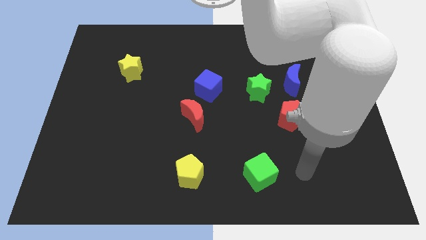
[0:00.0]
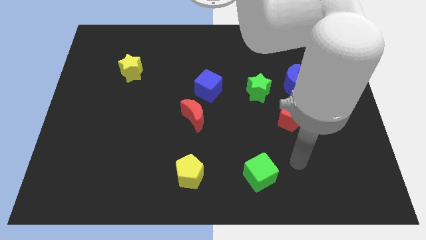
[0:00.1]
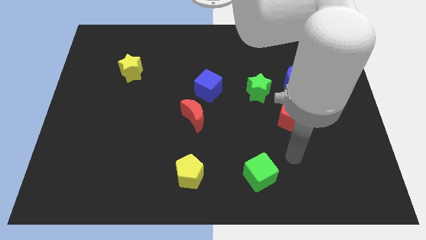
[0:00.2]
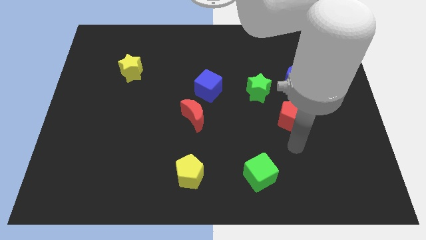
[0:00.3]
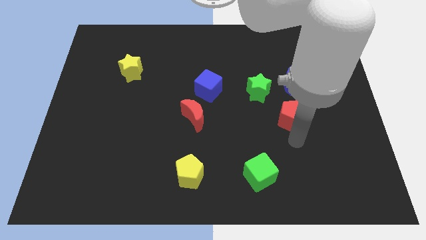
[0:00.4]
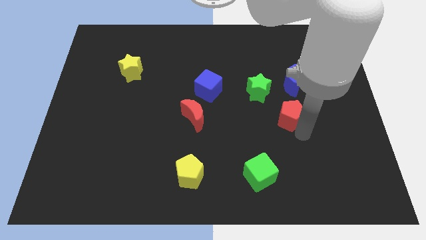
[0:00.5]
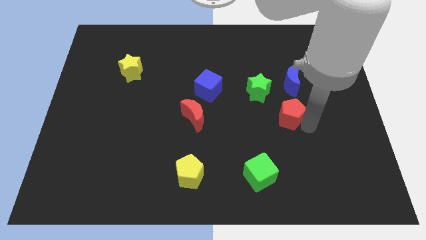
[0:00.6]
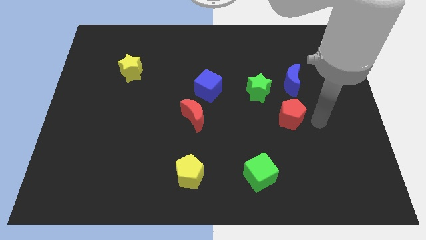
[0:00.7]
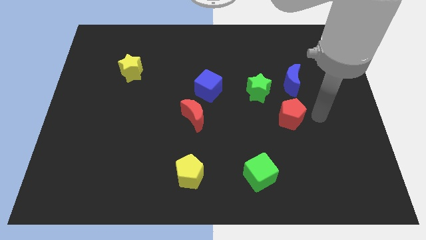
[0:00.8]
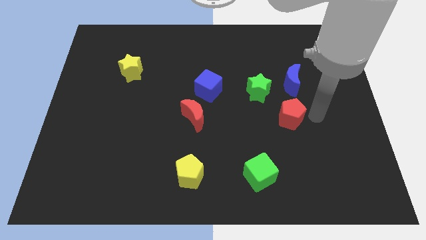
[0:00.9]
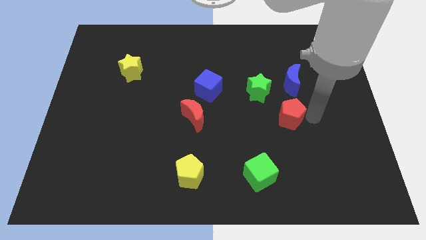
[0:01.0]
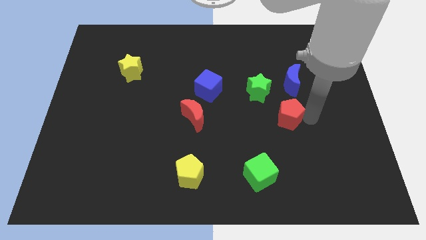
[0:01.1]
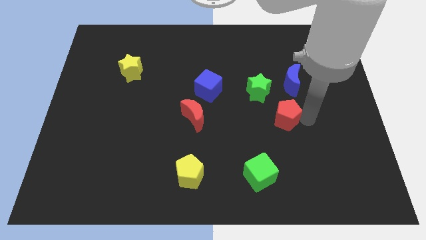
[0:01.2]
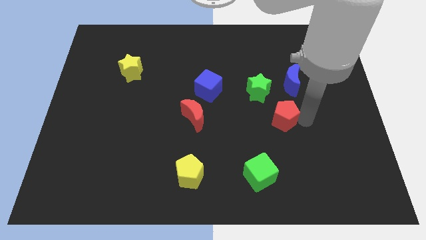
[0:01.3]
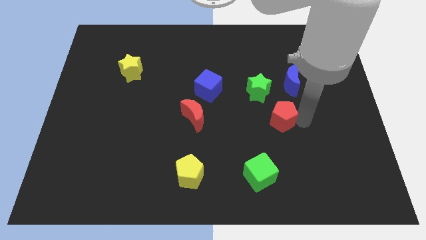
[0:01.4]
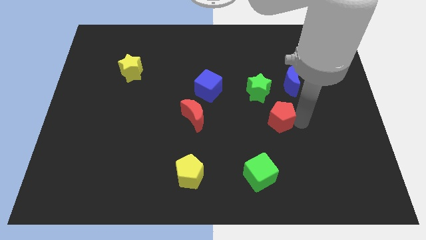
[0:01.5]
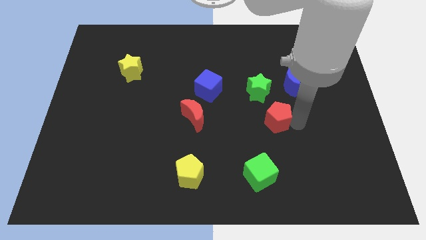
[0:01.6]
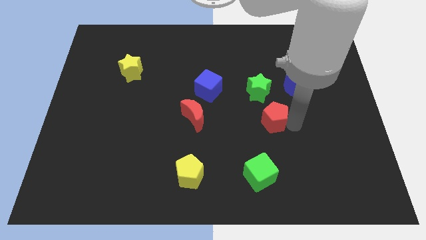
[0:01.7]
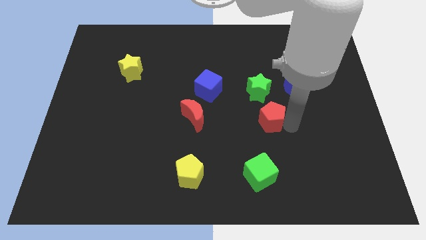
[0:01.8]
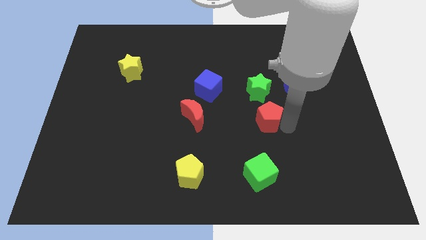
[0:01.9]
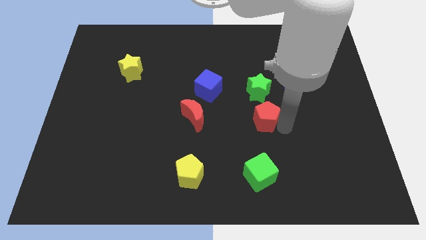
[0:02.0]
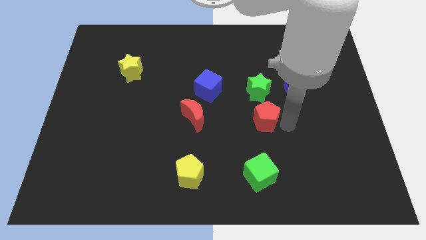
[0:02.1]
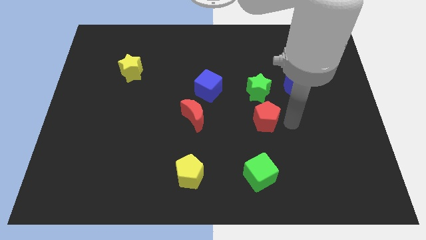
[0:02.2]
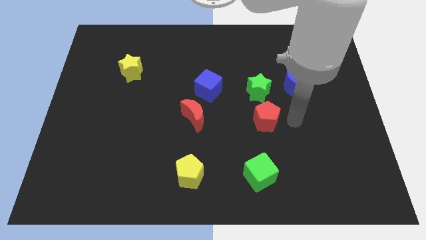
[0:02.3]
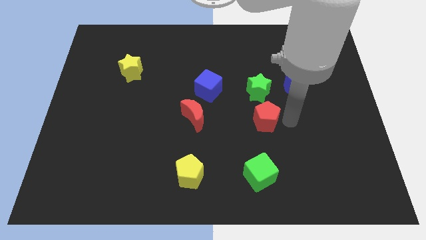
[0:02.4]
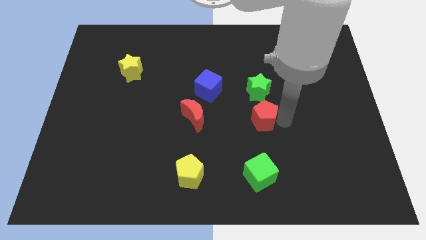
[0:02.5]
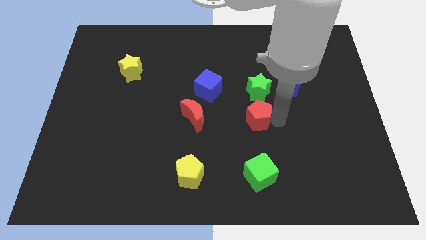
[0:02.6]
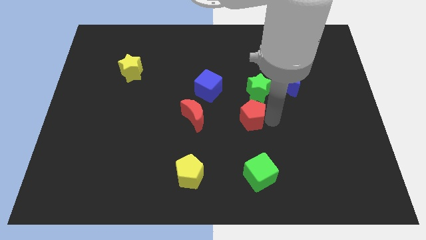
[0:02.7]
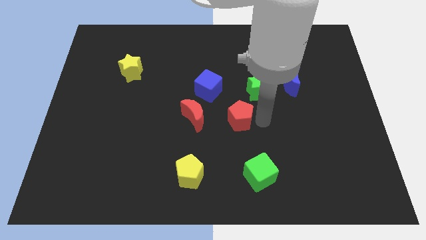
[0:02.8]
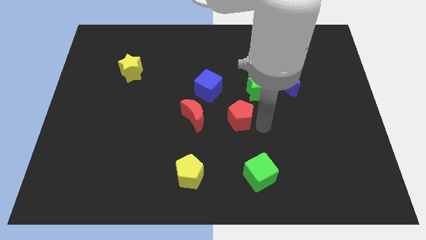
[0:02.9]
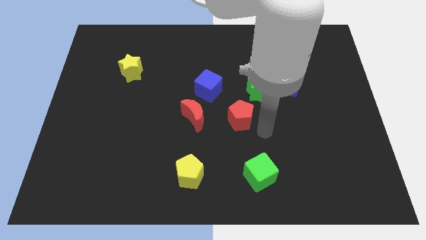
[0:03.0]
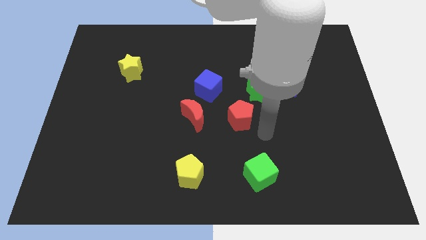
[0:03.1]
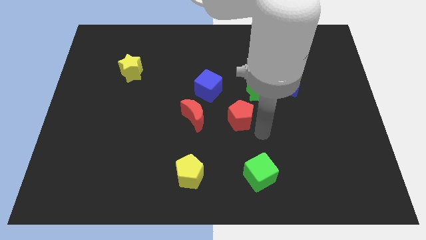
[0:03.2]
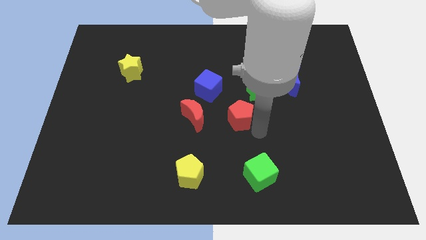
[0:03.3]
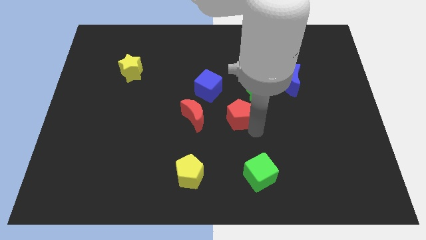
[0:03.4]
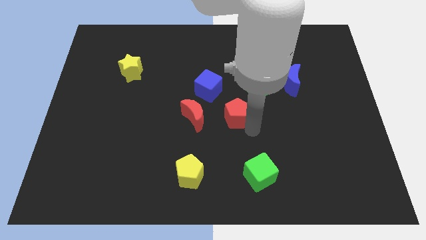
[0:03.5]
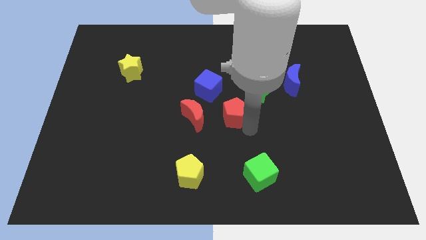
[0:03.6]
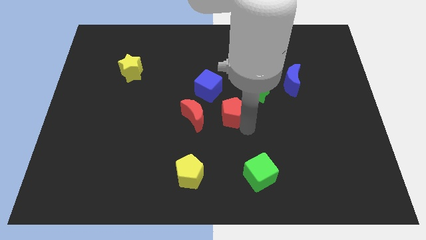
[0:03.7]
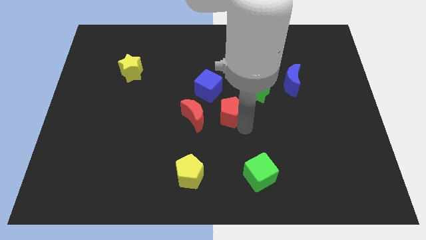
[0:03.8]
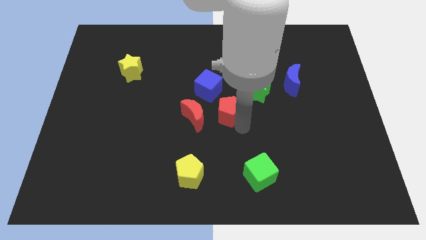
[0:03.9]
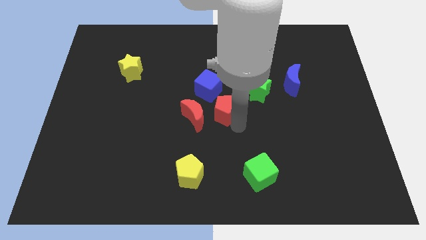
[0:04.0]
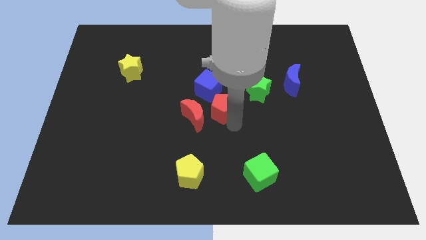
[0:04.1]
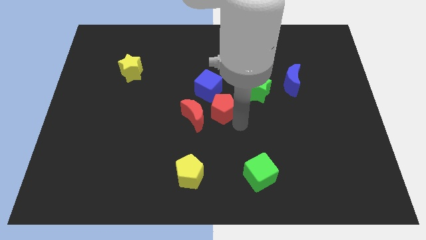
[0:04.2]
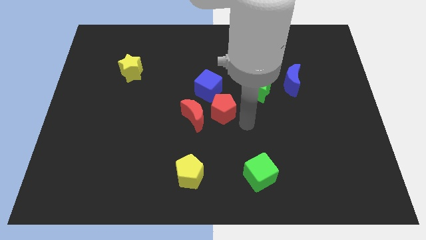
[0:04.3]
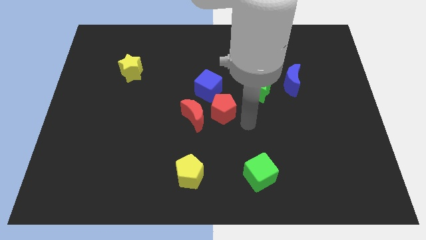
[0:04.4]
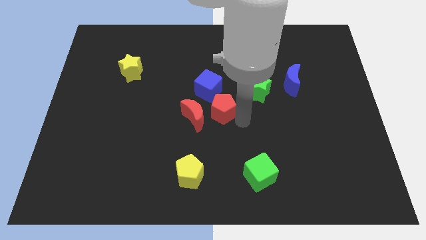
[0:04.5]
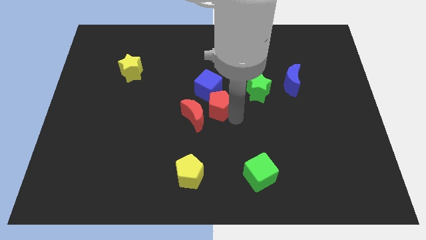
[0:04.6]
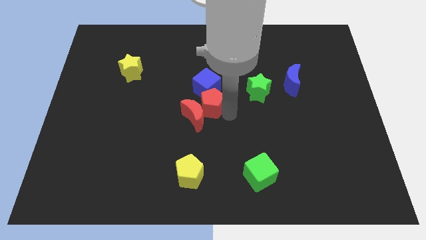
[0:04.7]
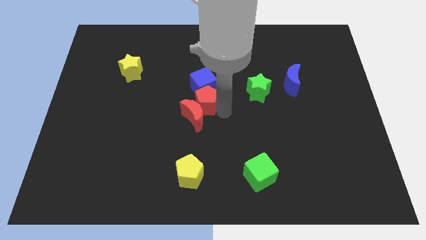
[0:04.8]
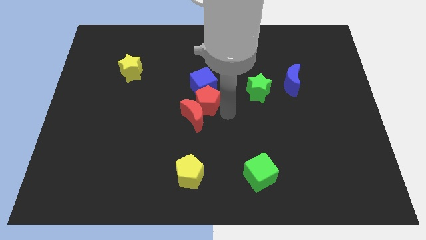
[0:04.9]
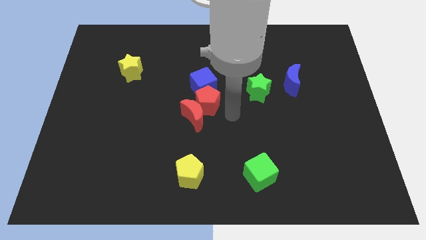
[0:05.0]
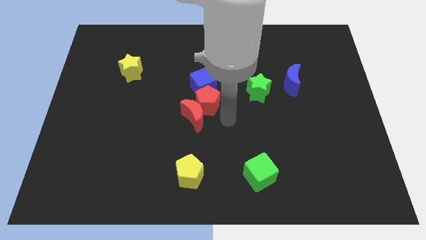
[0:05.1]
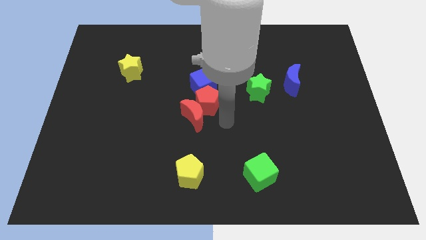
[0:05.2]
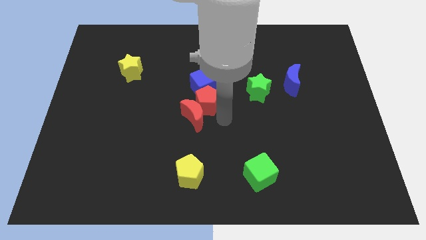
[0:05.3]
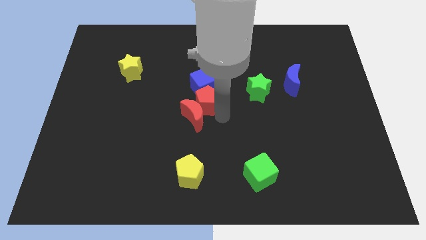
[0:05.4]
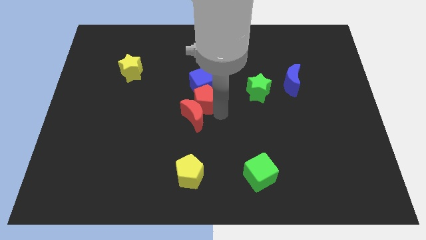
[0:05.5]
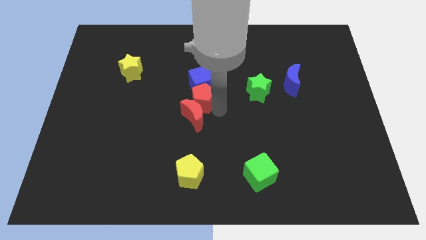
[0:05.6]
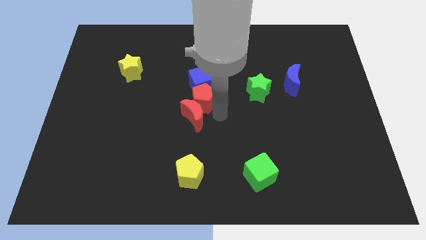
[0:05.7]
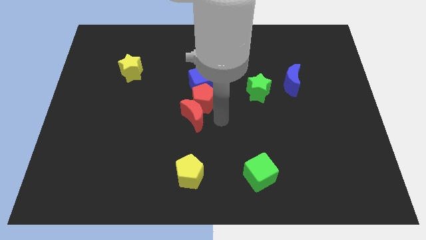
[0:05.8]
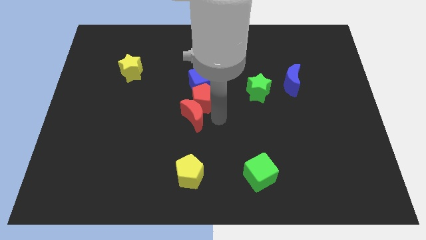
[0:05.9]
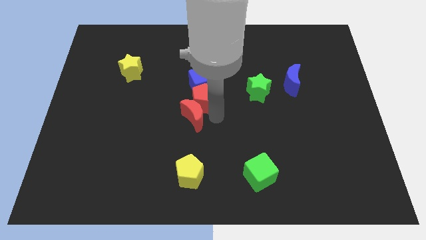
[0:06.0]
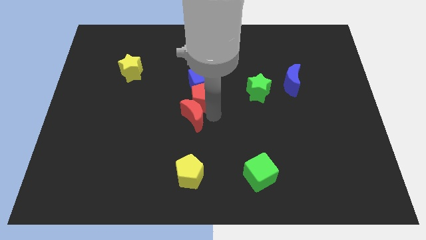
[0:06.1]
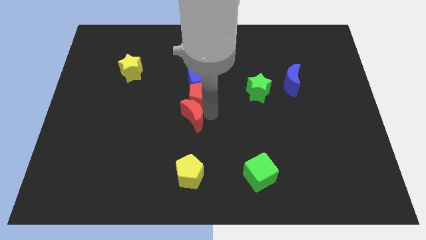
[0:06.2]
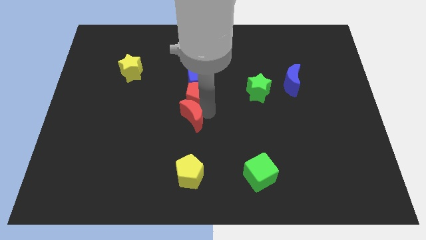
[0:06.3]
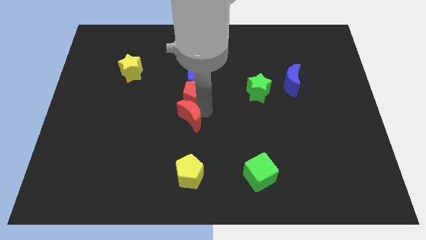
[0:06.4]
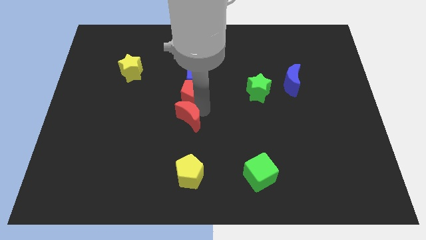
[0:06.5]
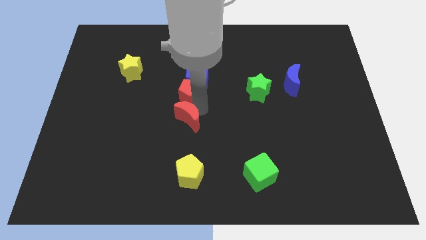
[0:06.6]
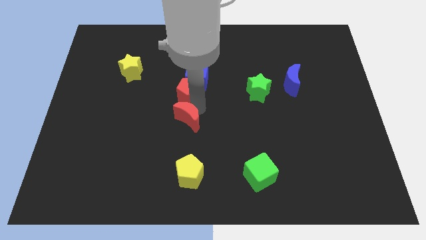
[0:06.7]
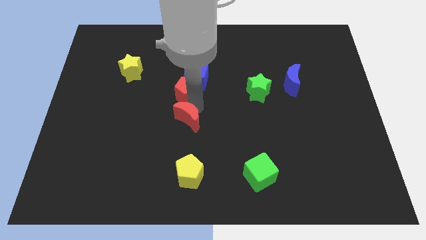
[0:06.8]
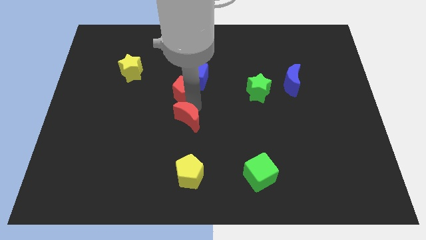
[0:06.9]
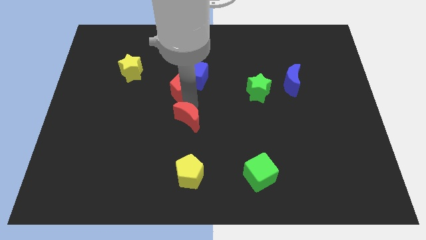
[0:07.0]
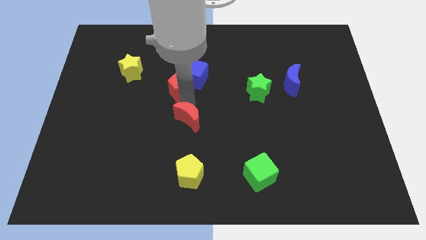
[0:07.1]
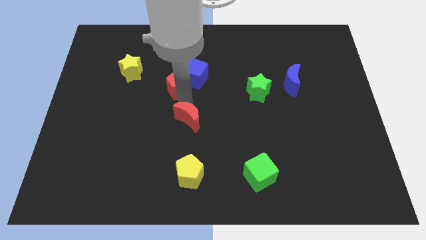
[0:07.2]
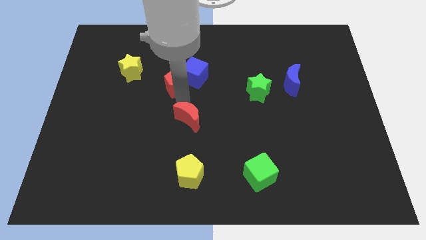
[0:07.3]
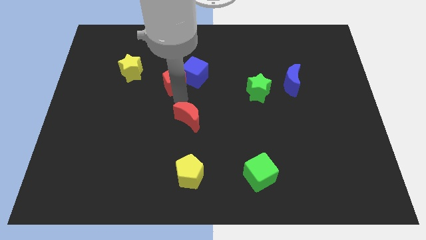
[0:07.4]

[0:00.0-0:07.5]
slide the red pentagon to the right of the yellow star
